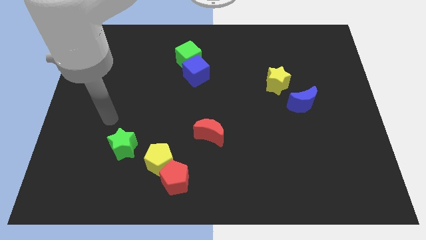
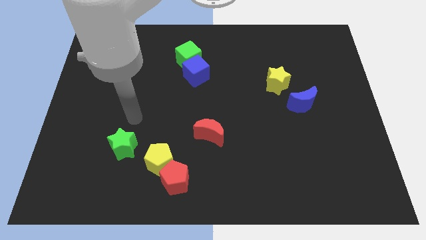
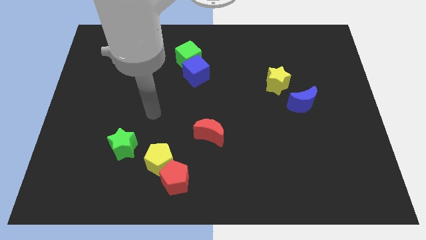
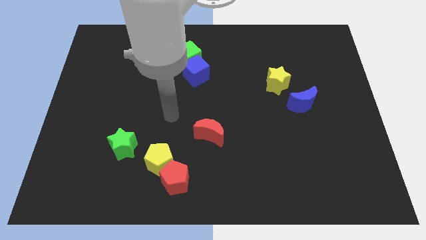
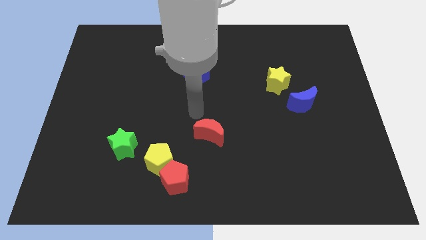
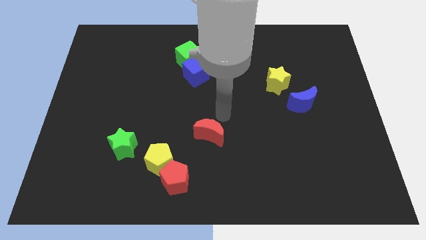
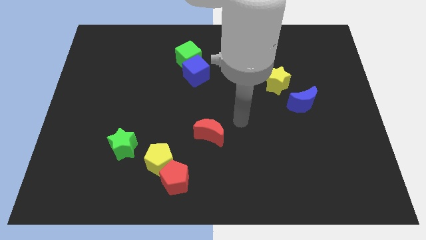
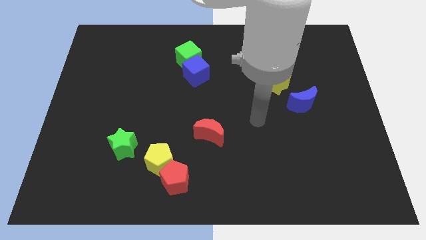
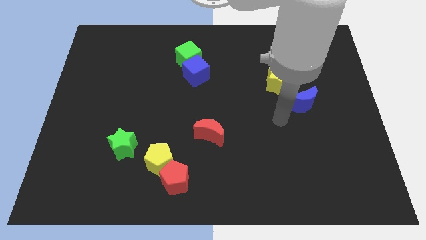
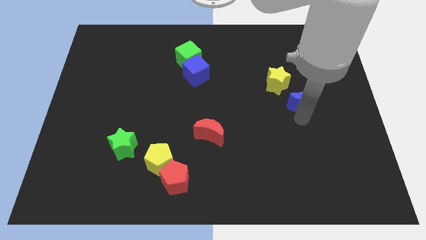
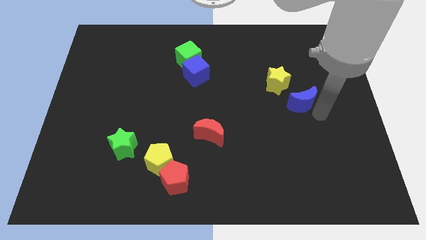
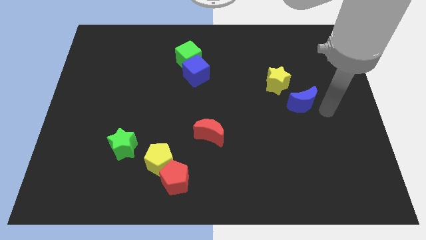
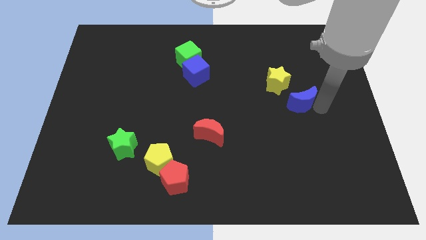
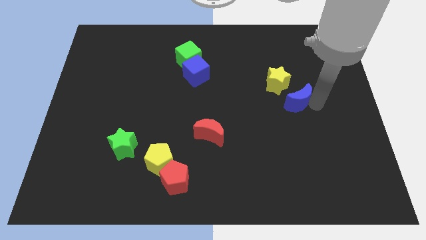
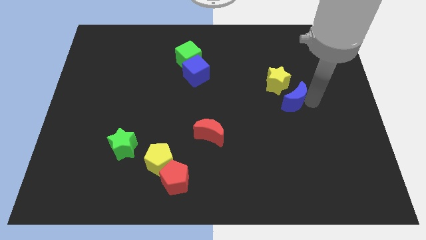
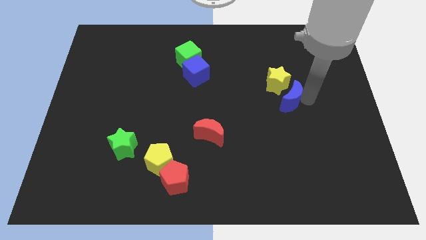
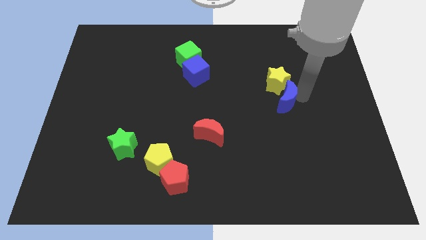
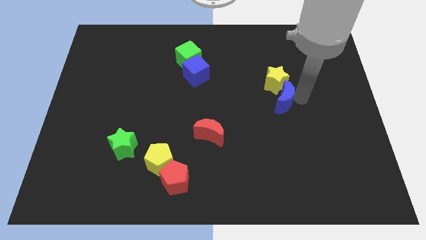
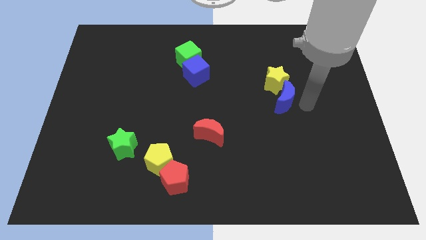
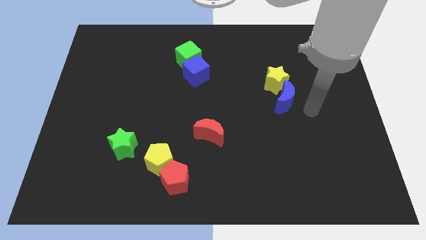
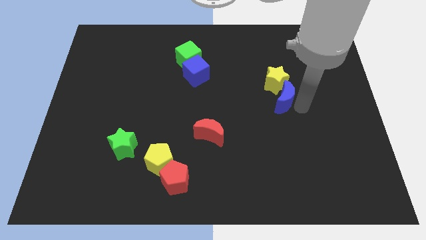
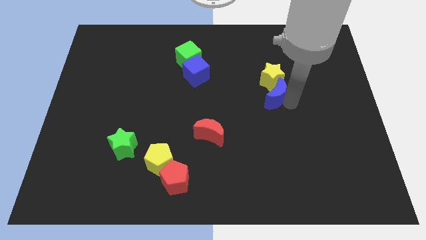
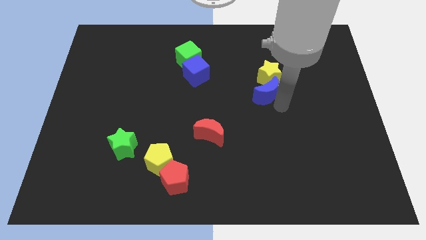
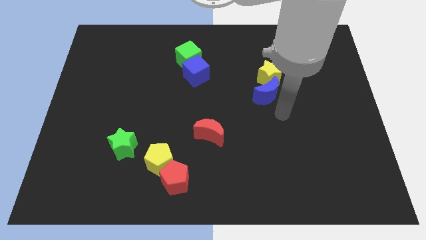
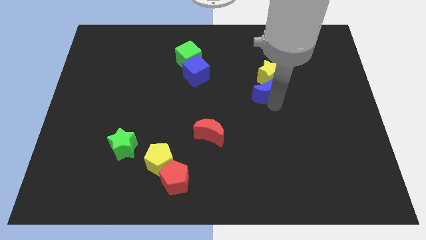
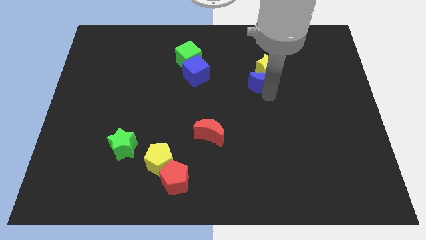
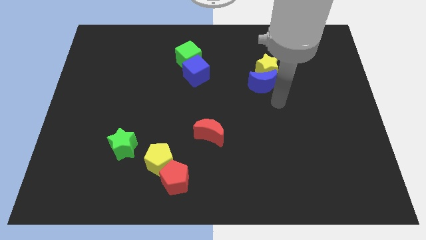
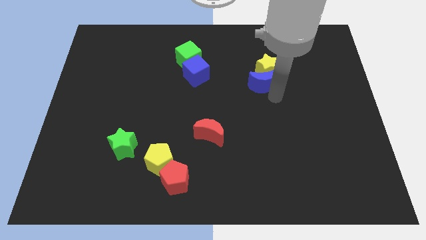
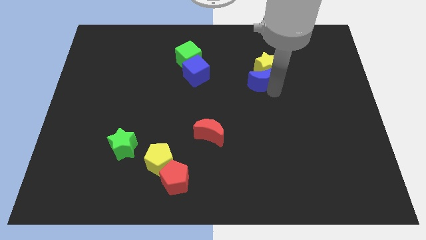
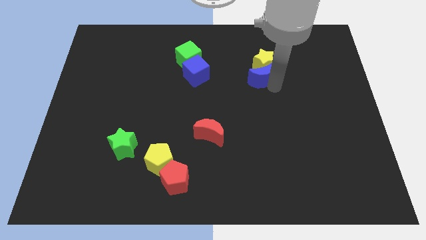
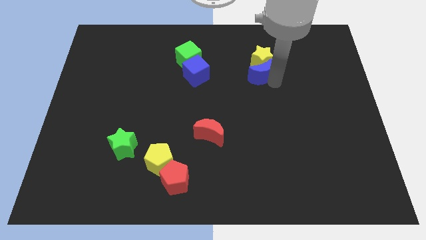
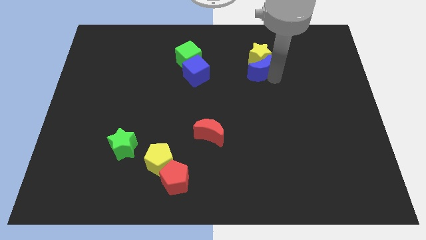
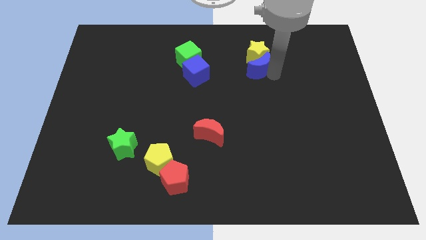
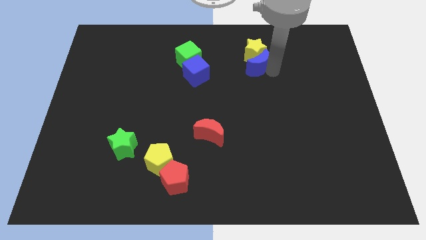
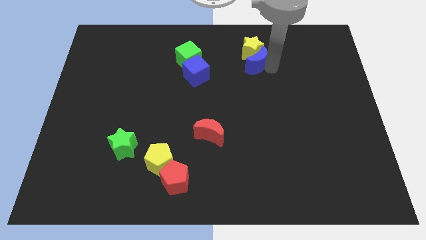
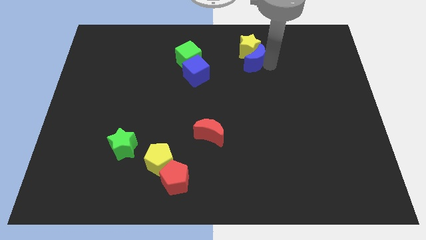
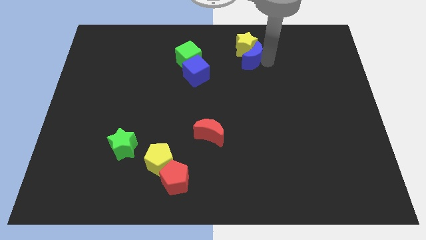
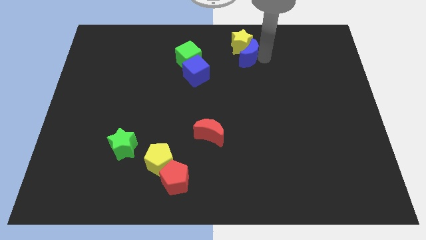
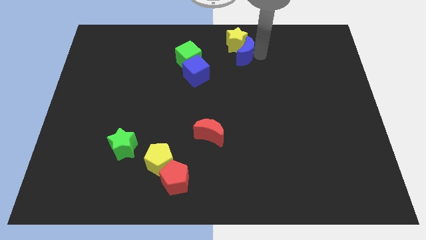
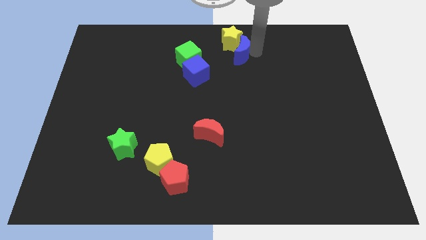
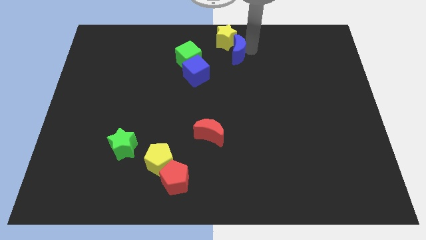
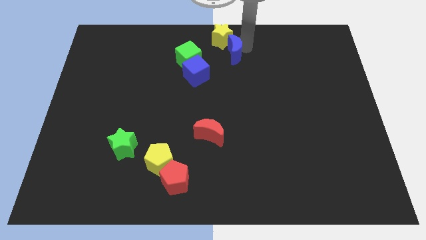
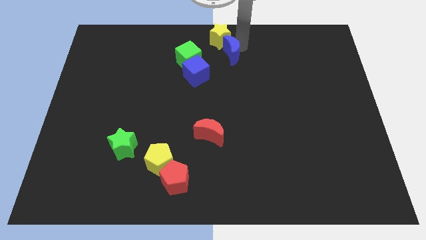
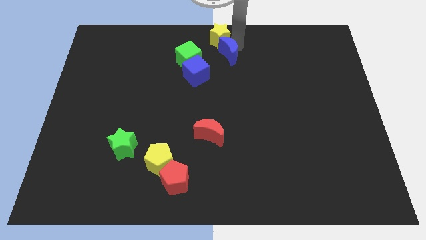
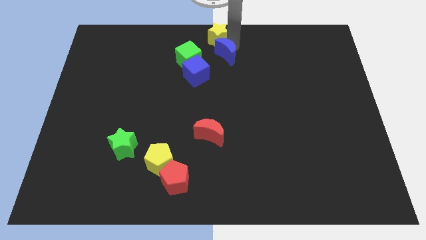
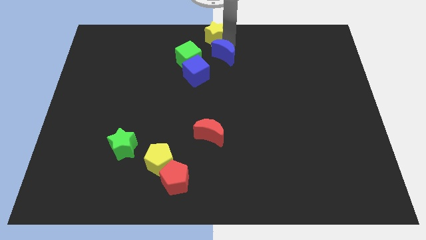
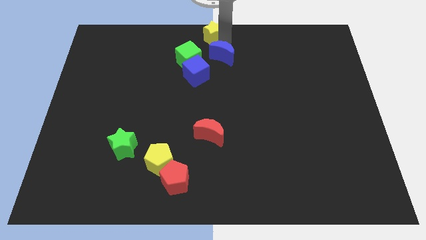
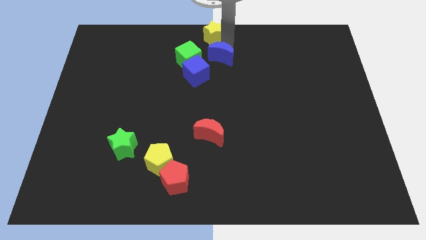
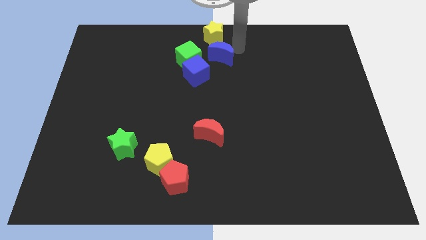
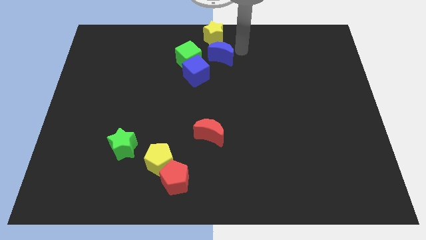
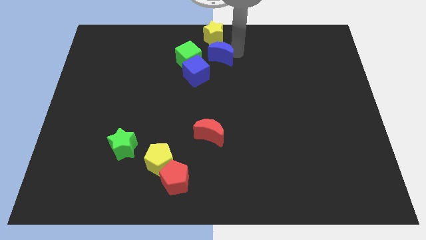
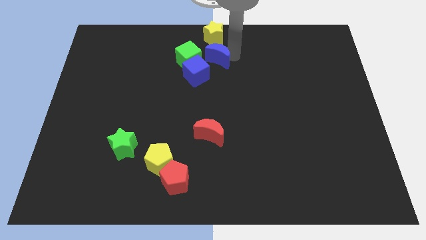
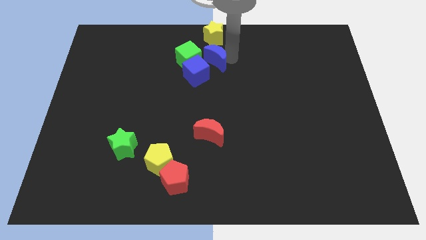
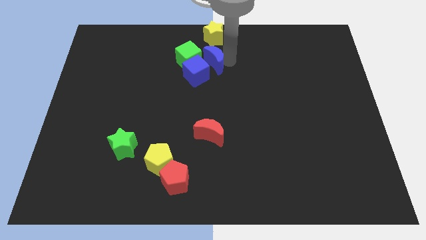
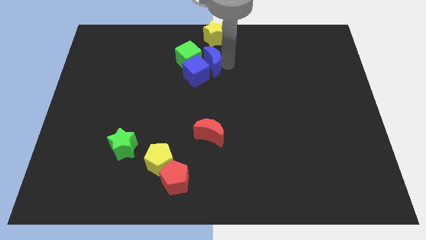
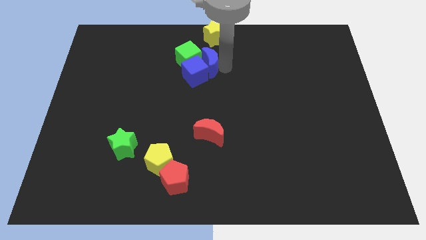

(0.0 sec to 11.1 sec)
move the blue moon towards the green cube
